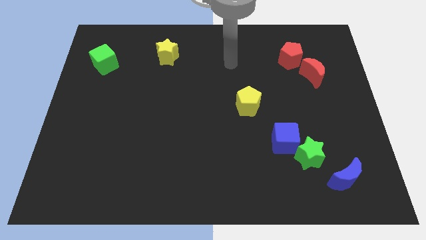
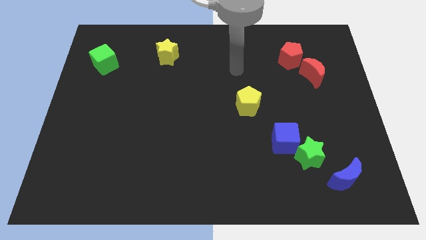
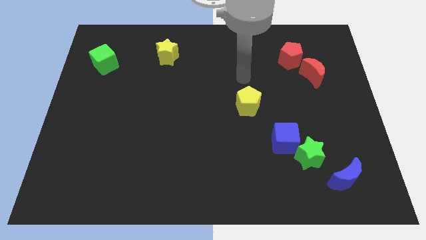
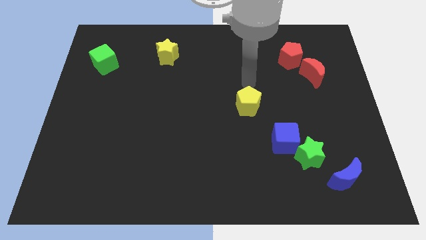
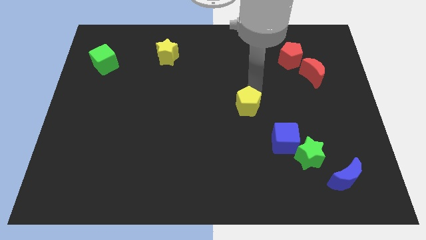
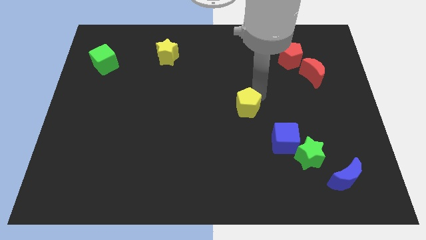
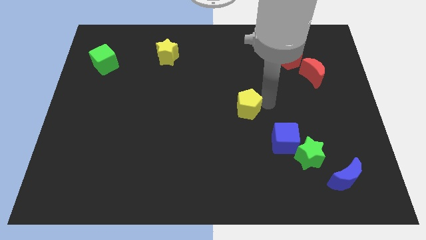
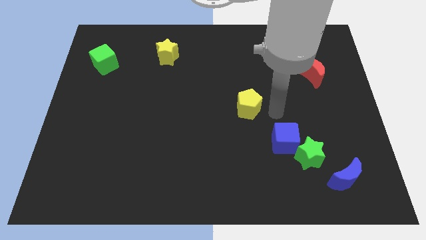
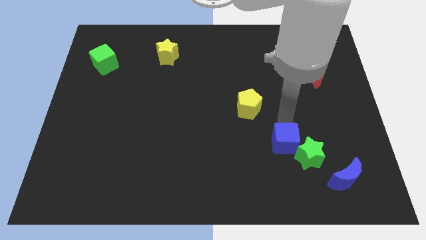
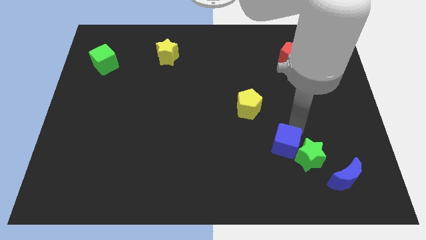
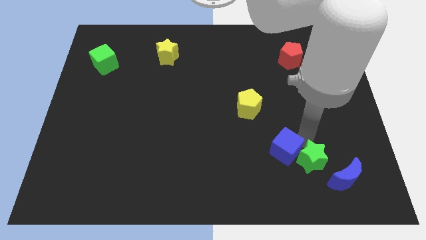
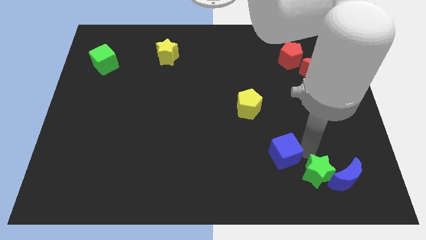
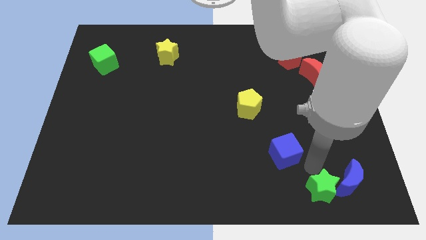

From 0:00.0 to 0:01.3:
pull the blue cube apart from the green star

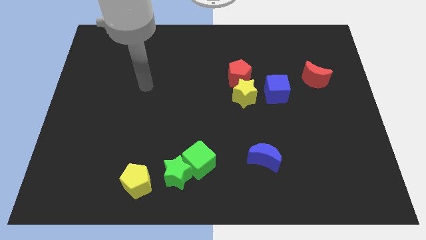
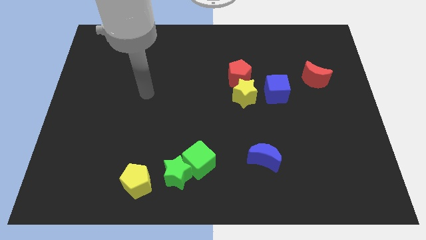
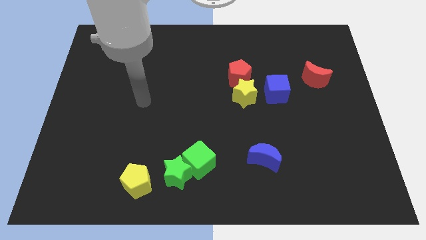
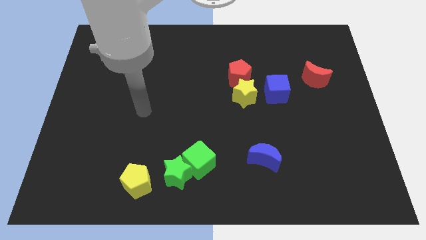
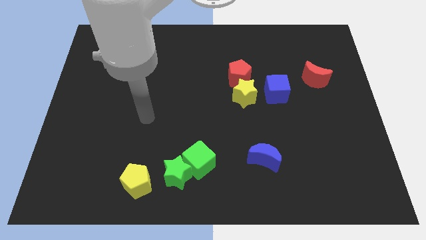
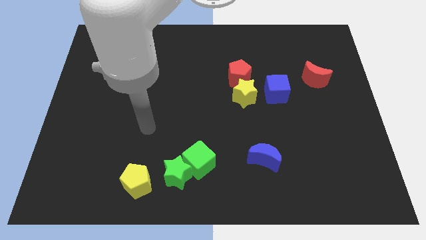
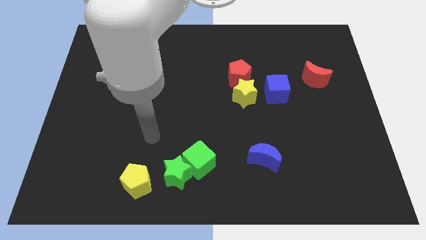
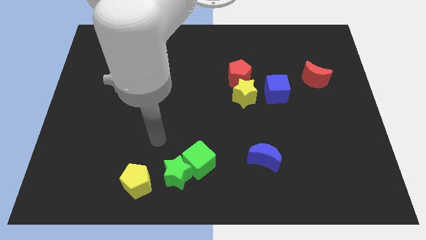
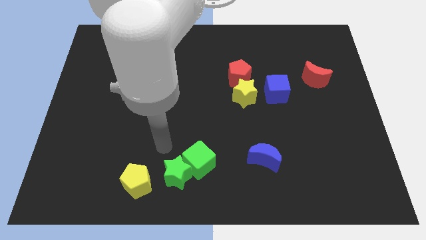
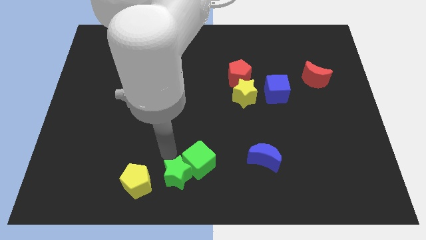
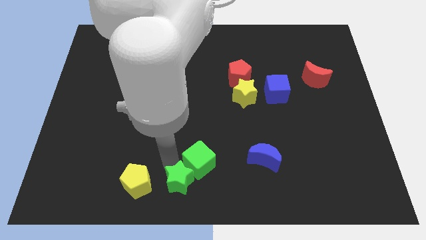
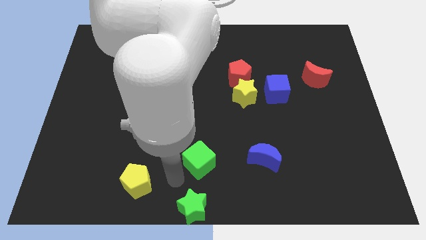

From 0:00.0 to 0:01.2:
separate the green cube from the green star

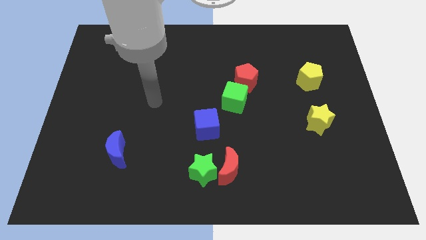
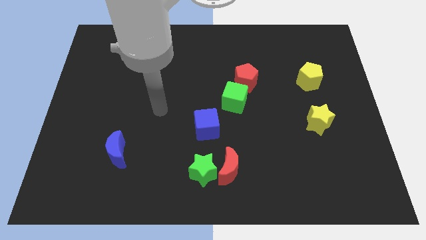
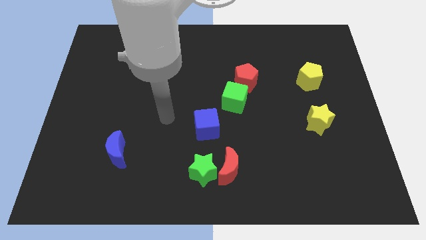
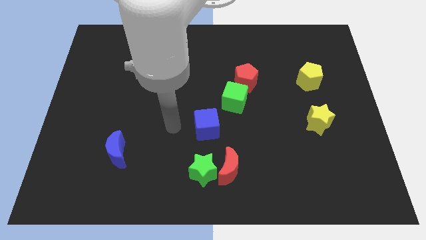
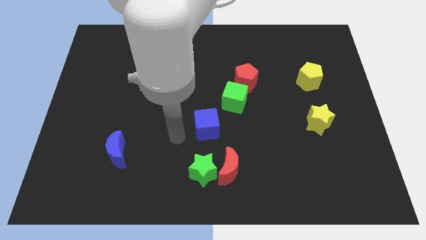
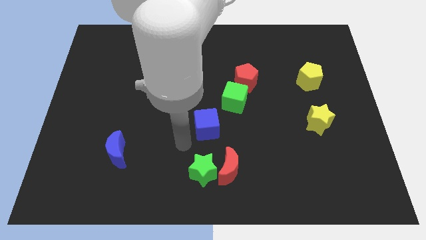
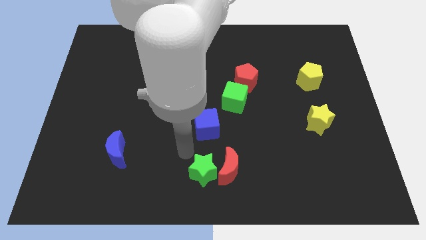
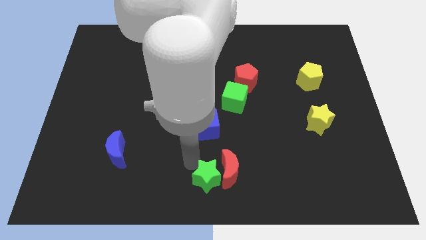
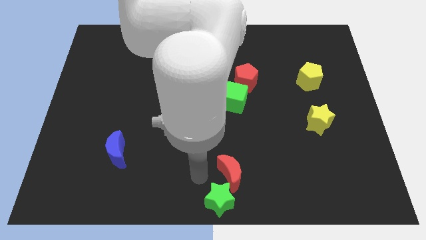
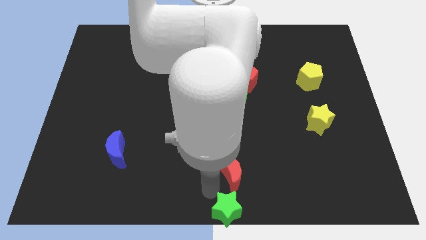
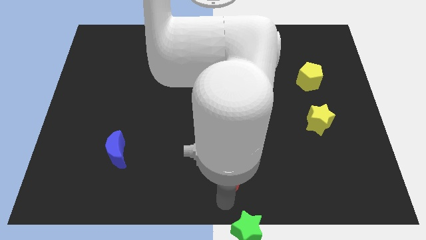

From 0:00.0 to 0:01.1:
separate the red moon from the green star

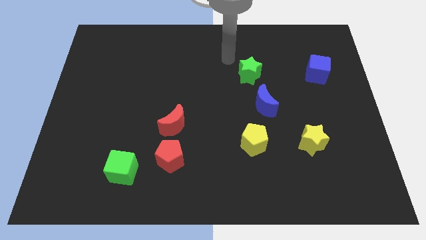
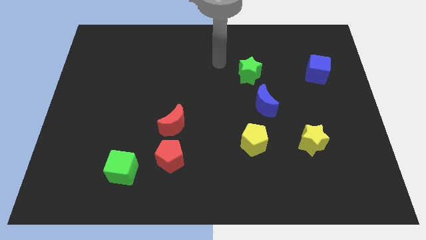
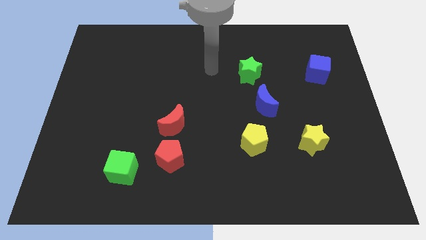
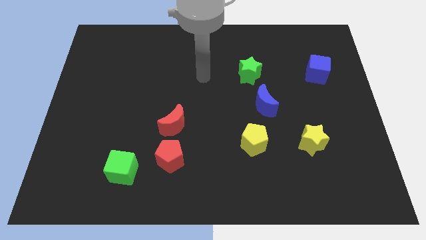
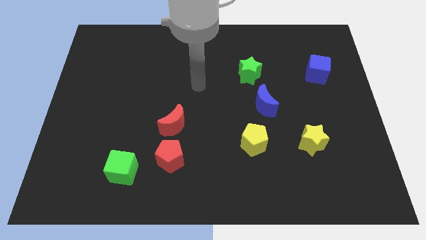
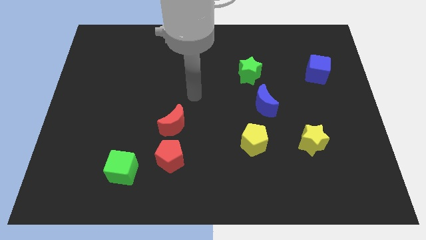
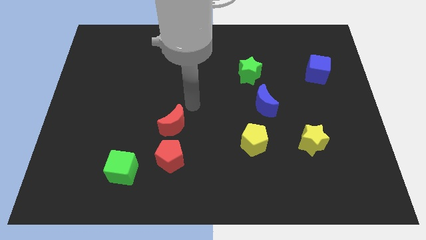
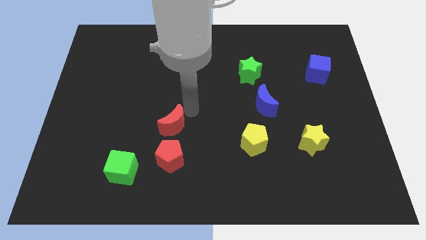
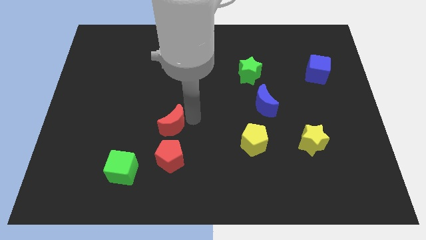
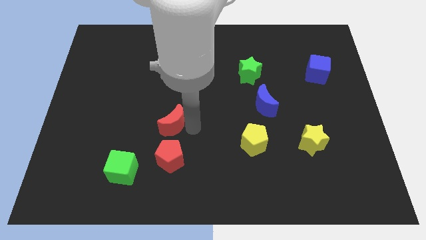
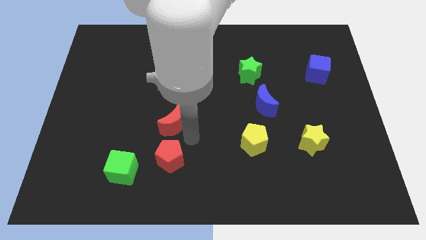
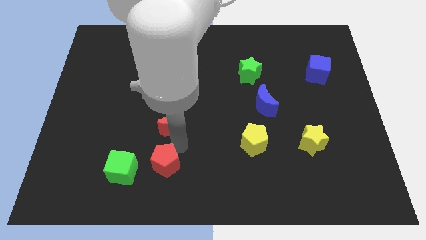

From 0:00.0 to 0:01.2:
separate the red moon from the red pentagon

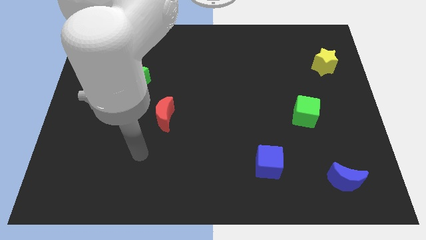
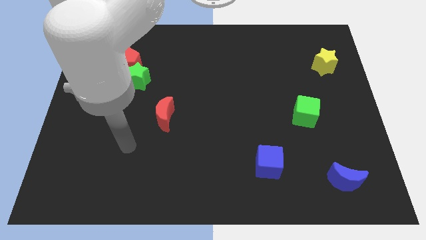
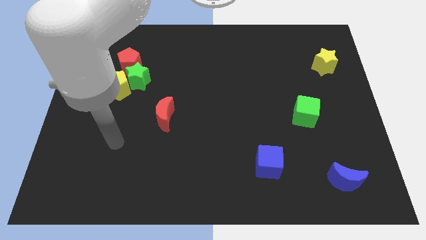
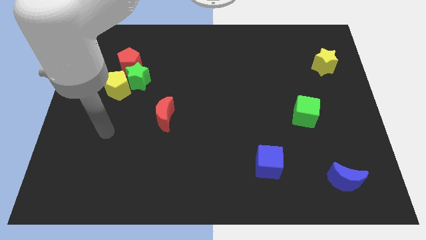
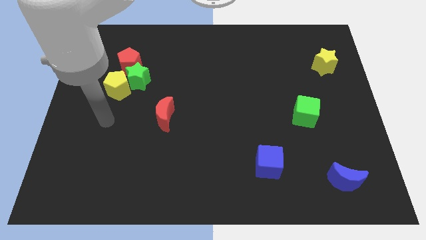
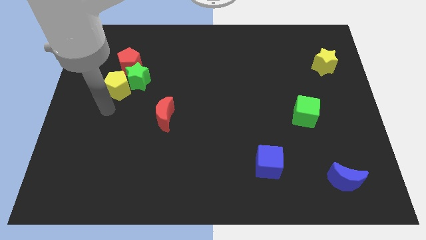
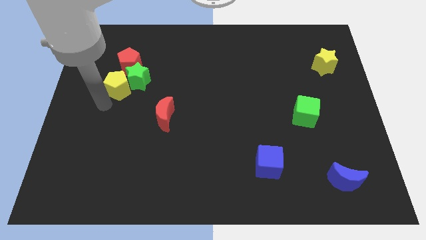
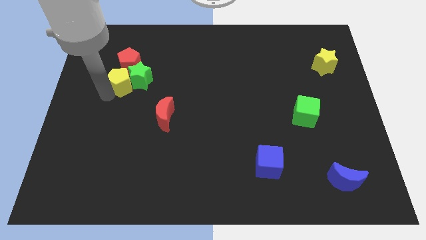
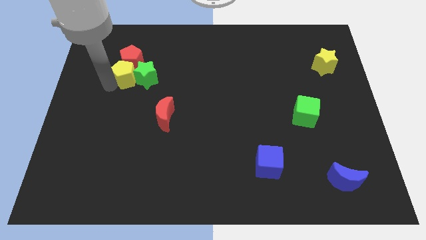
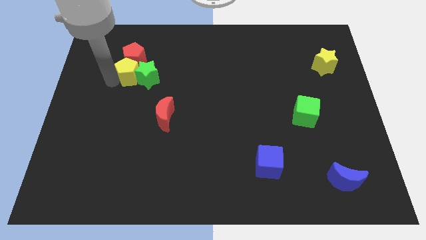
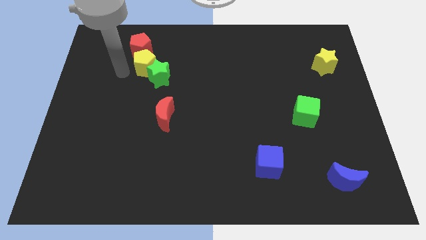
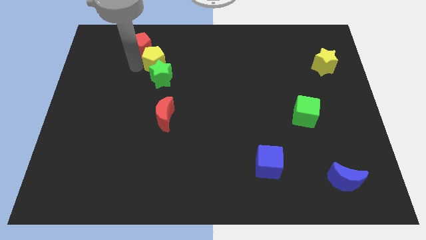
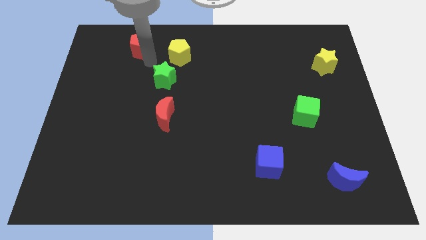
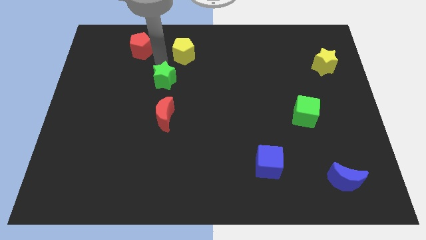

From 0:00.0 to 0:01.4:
separate the green star from the yellow pentagon and red pentagon

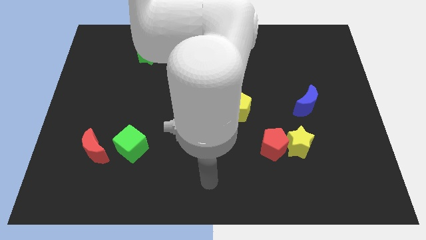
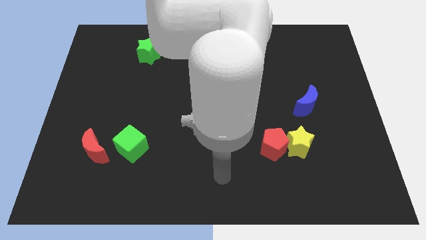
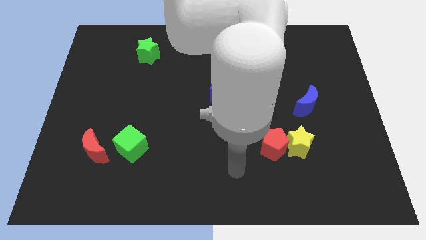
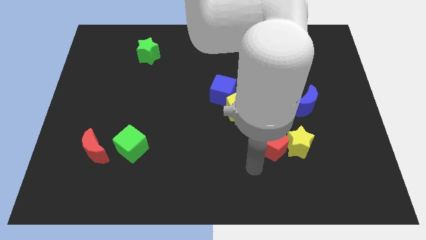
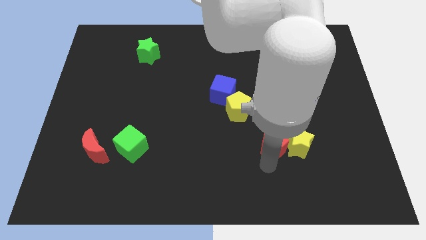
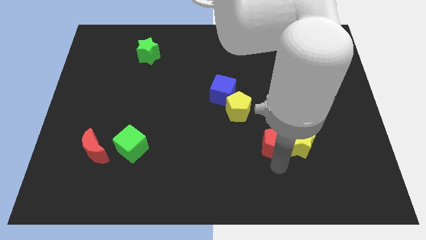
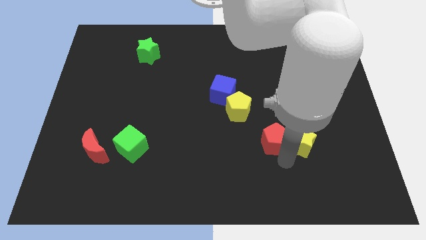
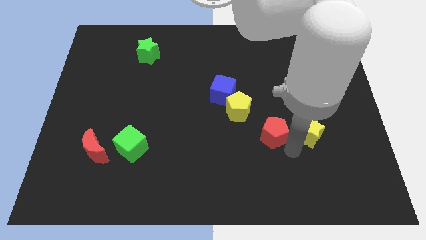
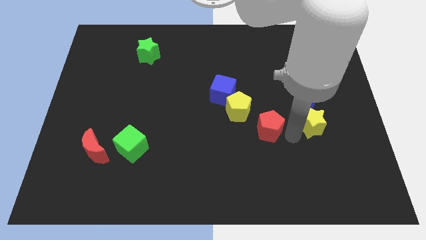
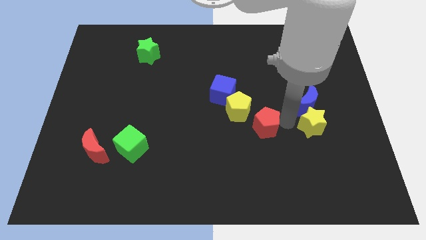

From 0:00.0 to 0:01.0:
separate the red pentagon from the yellow star

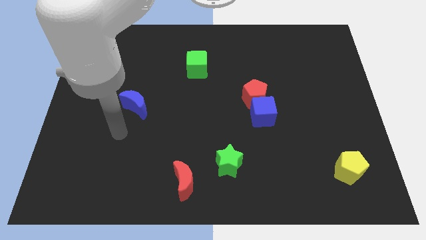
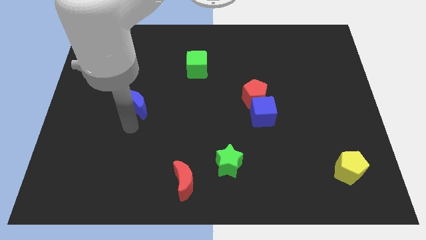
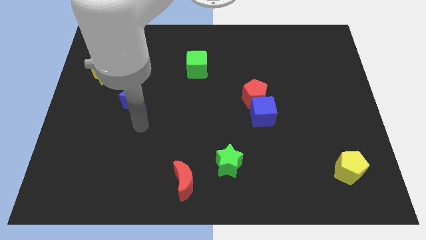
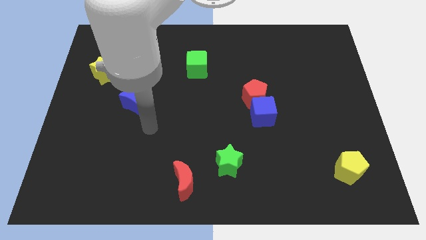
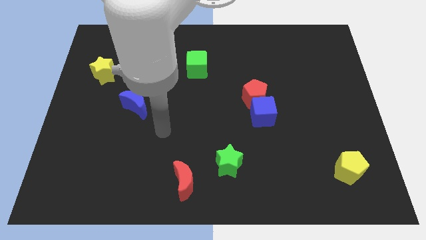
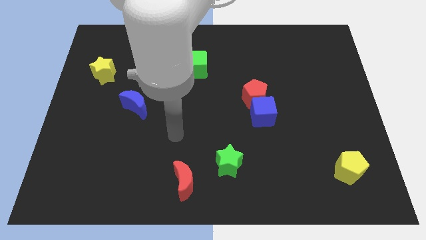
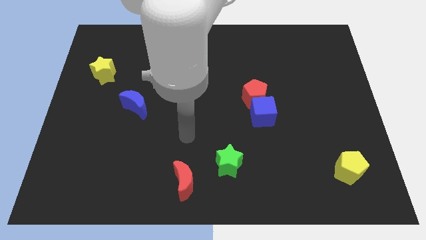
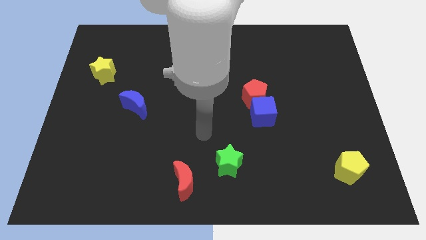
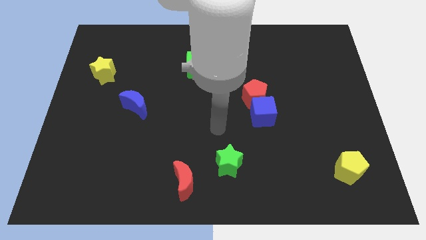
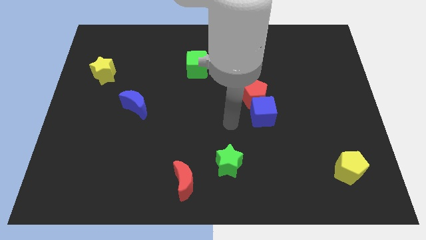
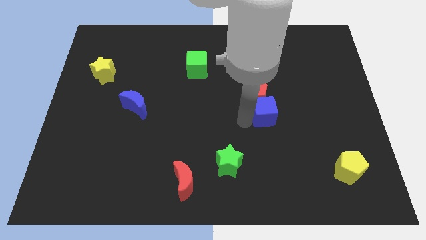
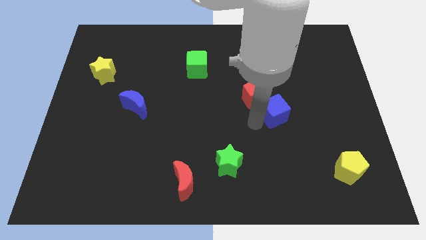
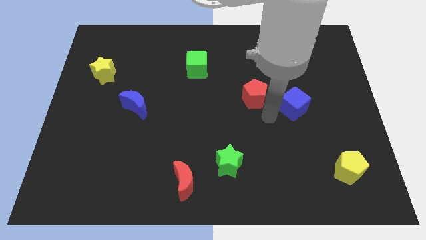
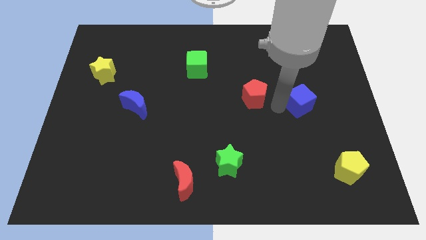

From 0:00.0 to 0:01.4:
separate the red pentagon from the blue cube

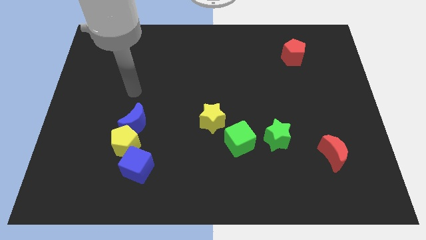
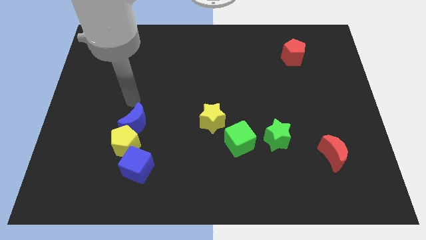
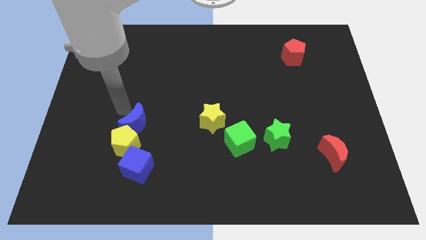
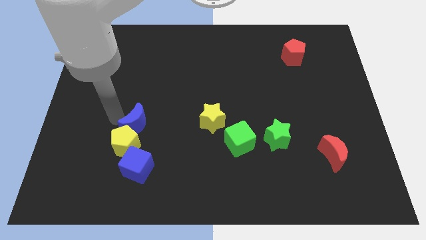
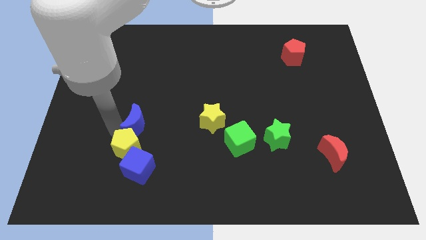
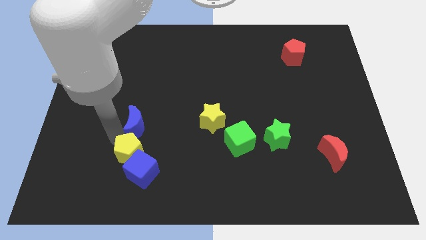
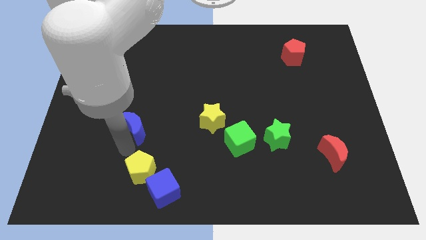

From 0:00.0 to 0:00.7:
separate the blue moon from the yellow pentagon

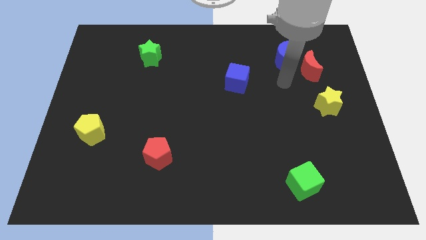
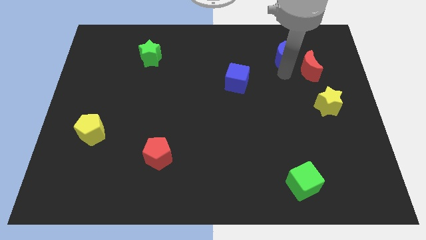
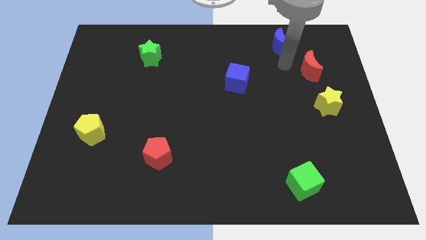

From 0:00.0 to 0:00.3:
pull the red moon apart from the blue moon
